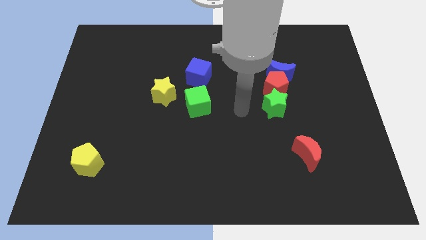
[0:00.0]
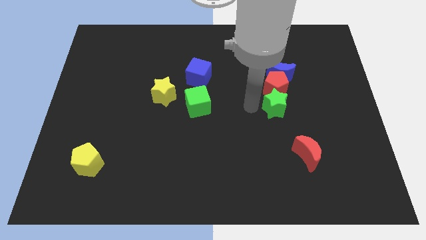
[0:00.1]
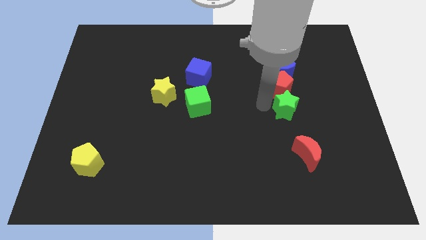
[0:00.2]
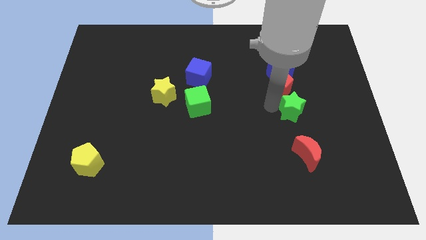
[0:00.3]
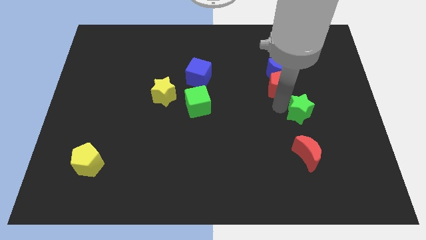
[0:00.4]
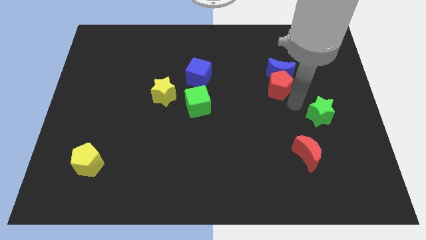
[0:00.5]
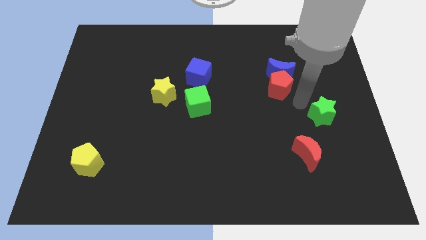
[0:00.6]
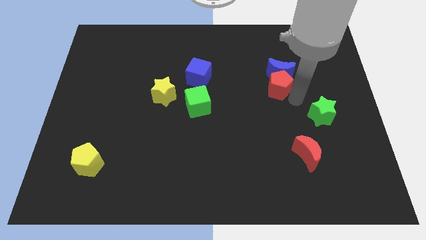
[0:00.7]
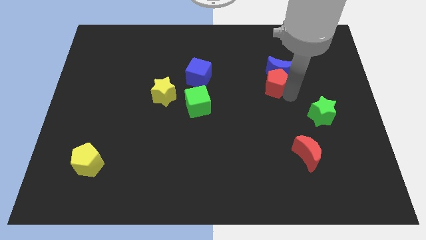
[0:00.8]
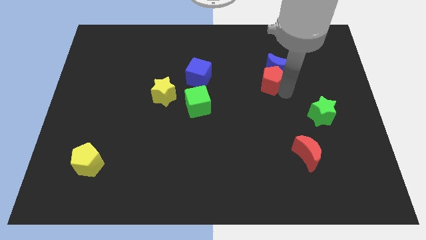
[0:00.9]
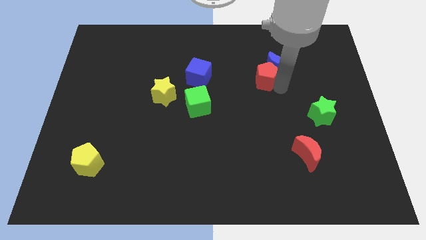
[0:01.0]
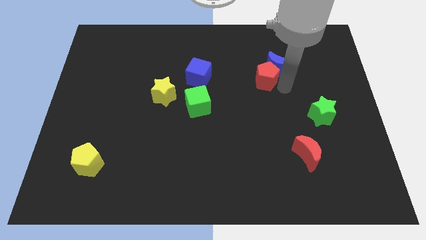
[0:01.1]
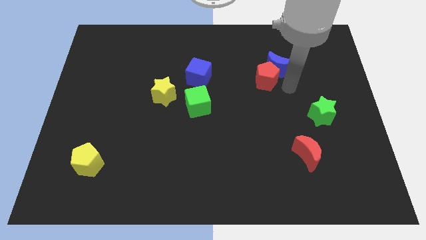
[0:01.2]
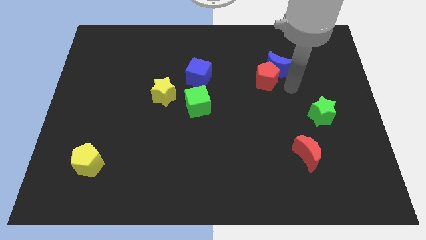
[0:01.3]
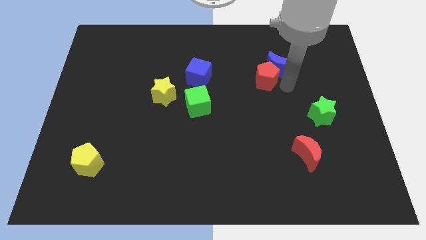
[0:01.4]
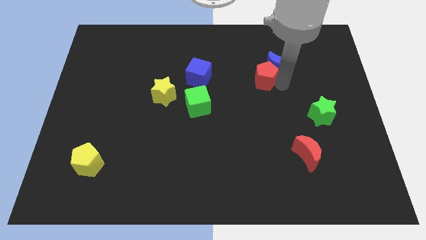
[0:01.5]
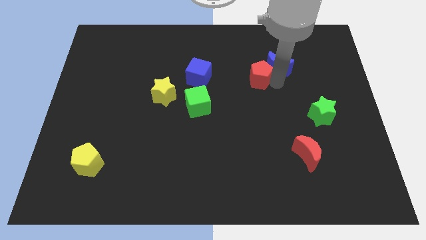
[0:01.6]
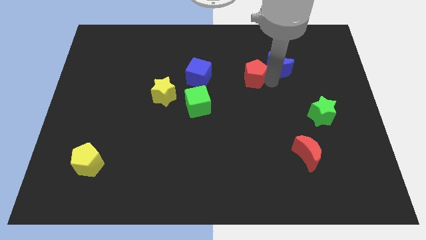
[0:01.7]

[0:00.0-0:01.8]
move the red pentagon away from the blue moon and green star

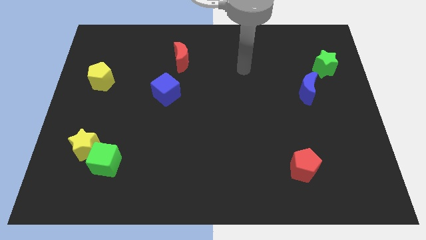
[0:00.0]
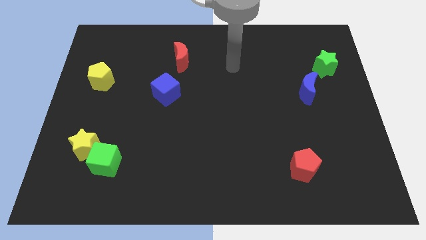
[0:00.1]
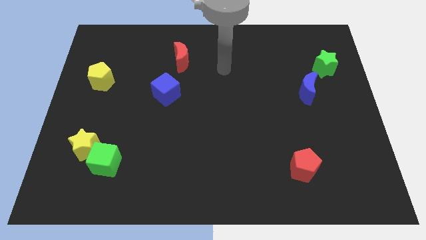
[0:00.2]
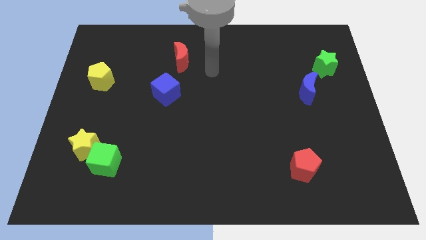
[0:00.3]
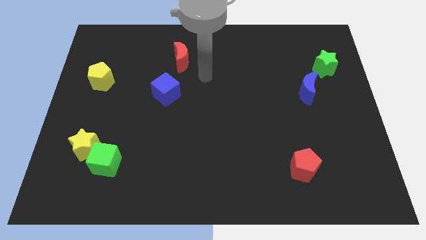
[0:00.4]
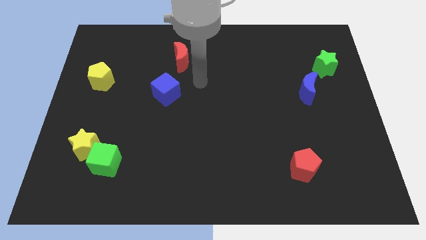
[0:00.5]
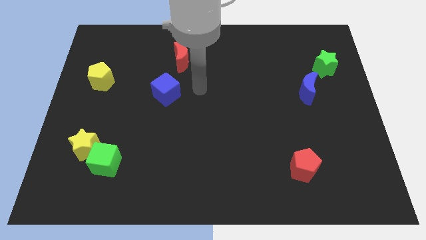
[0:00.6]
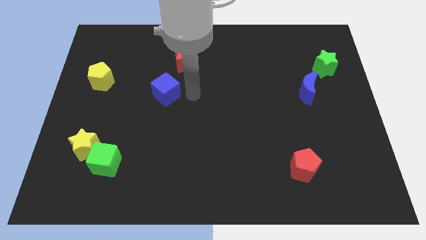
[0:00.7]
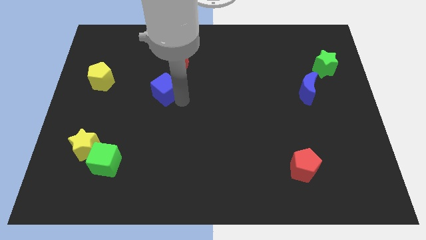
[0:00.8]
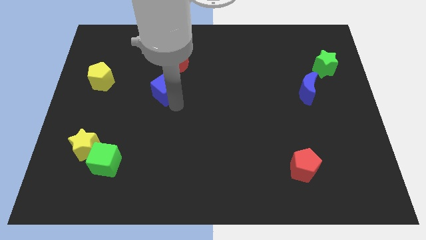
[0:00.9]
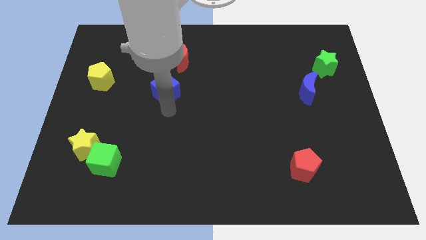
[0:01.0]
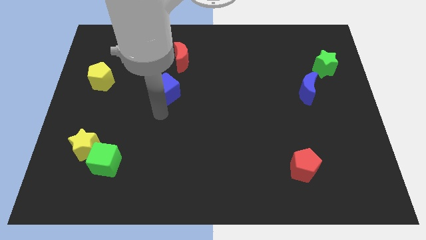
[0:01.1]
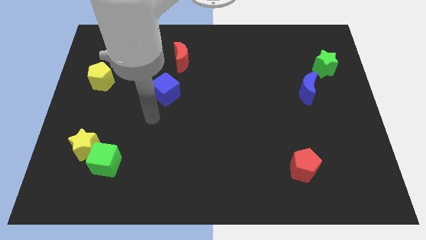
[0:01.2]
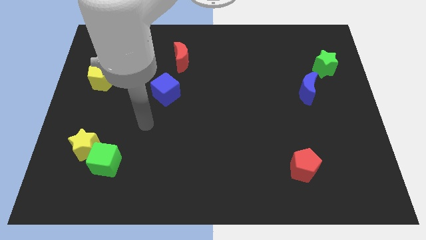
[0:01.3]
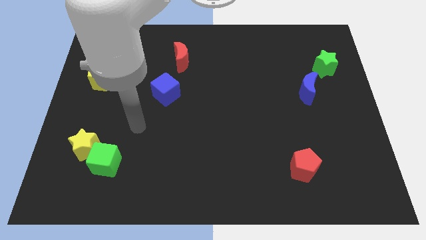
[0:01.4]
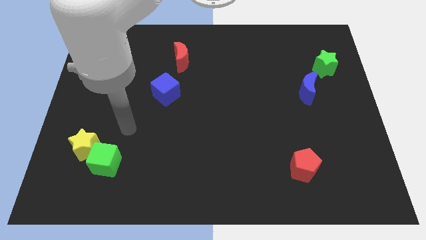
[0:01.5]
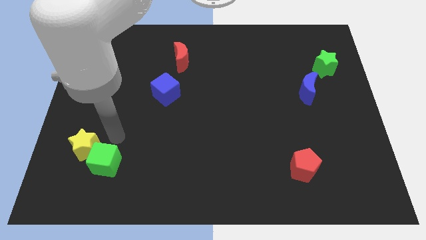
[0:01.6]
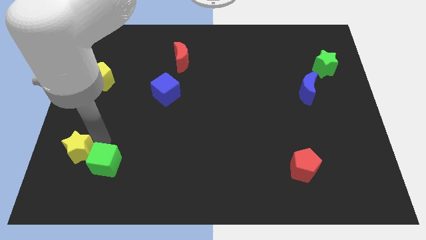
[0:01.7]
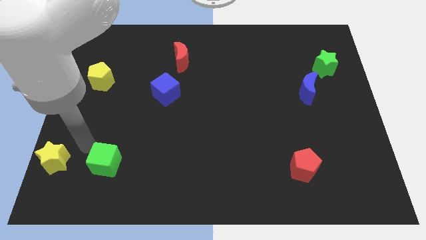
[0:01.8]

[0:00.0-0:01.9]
pull the green cube apart from the yellow star

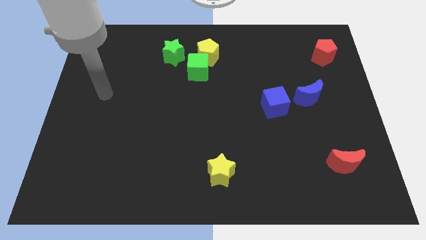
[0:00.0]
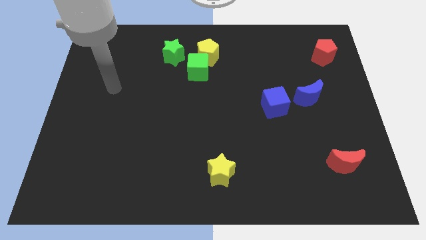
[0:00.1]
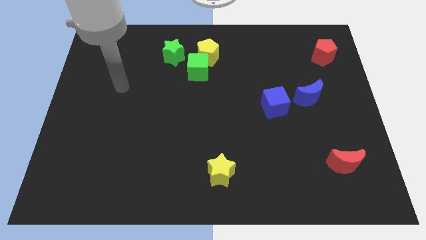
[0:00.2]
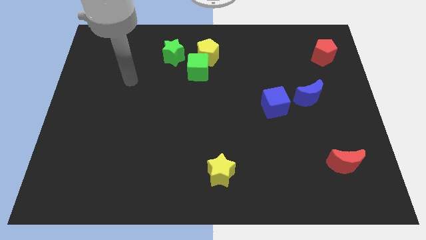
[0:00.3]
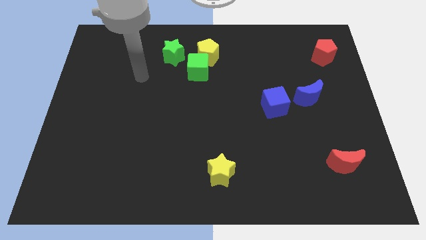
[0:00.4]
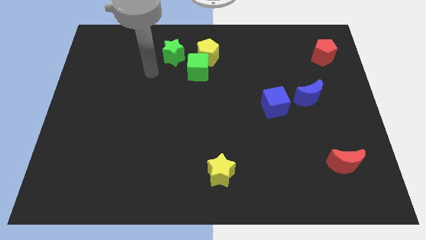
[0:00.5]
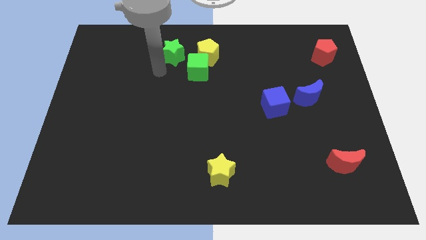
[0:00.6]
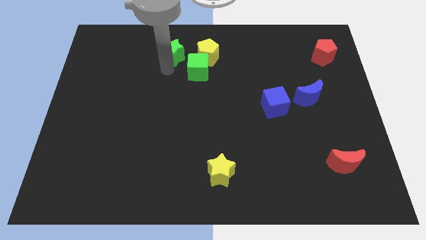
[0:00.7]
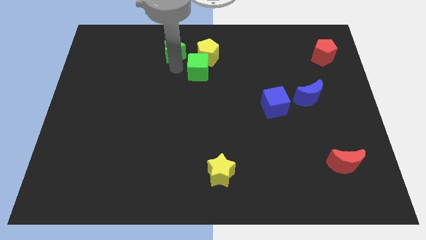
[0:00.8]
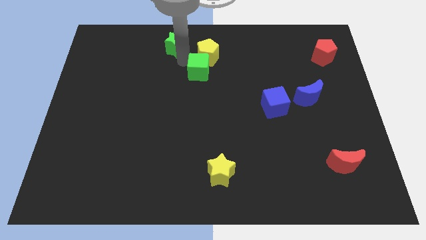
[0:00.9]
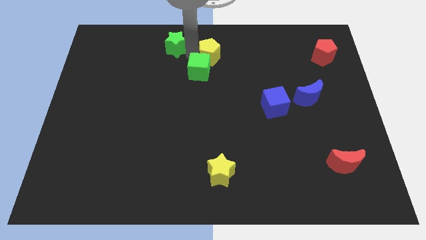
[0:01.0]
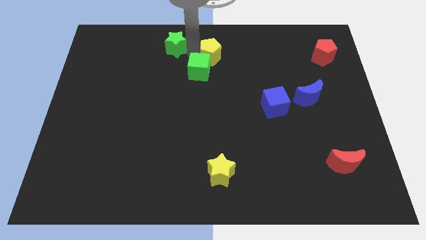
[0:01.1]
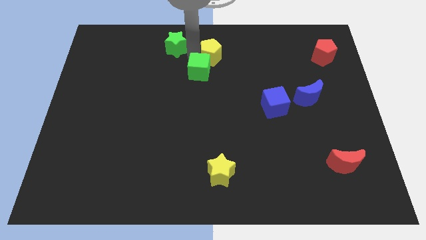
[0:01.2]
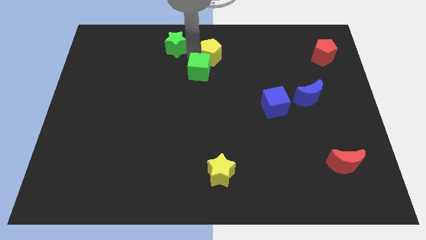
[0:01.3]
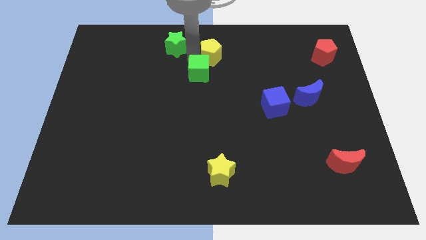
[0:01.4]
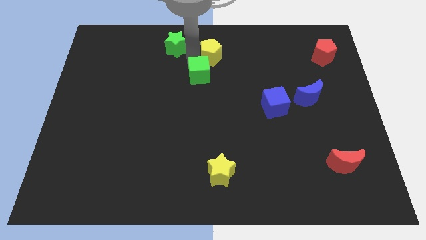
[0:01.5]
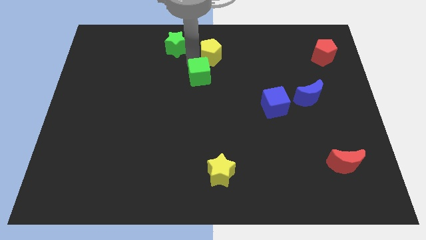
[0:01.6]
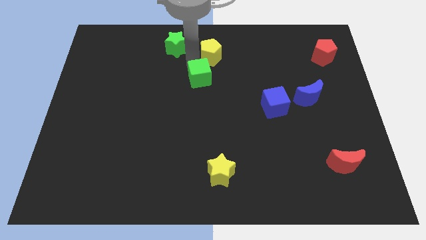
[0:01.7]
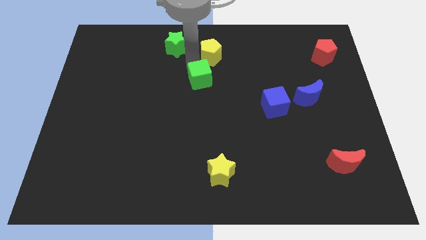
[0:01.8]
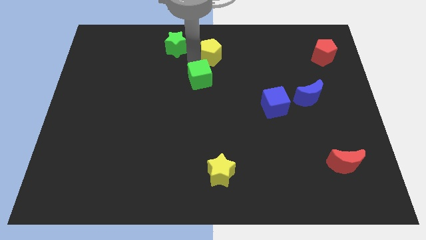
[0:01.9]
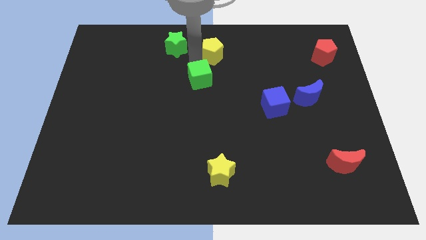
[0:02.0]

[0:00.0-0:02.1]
move the green cube away from the yellow pentagon and green star

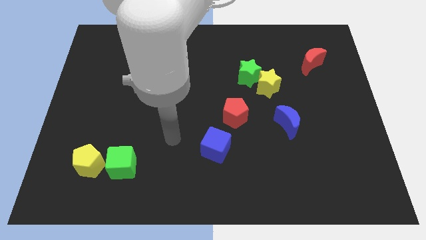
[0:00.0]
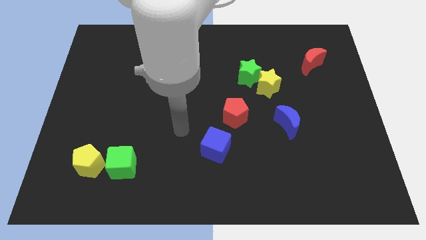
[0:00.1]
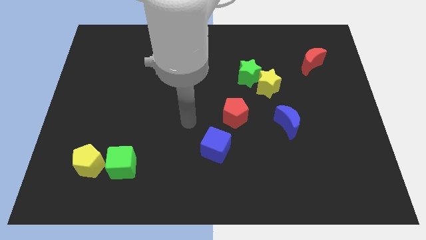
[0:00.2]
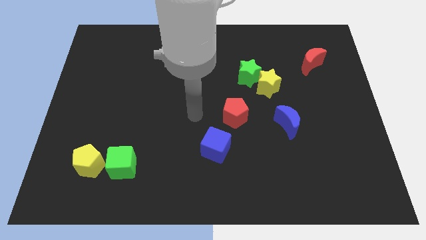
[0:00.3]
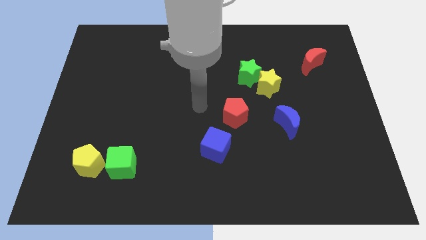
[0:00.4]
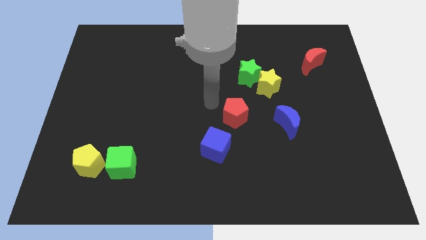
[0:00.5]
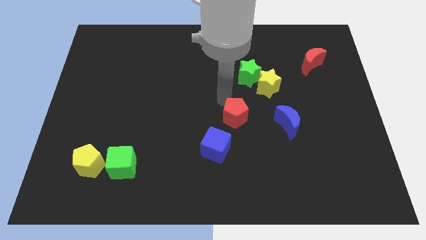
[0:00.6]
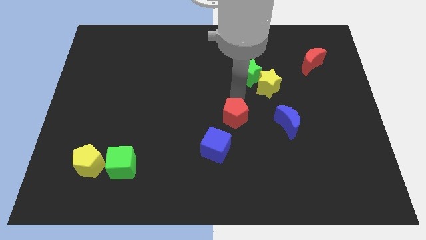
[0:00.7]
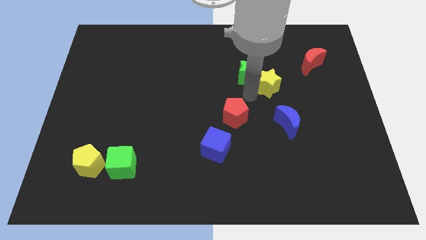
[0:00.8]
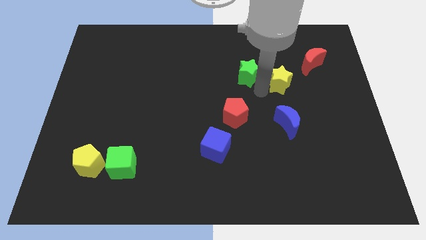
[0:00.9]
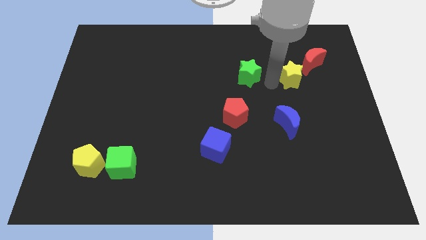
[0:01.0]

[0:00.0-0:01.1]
separate the green star from the yellow star

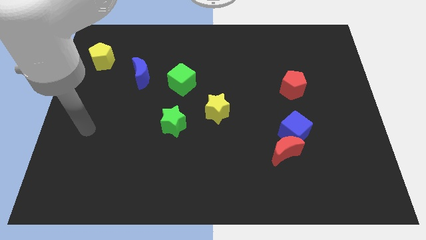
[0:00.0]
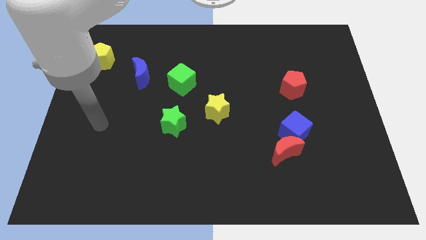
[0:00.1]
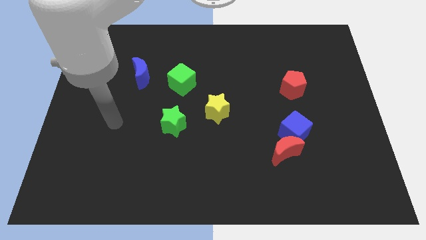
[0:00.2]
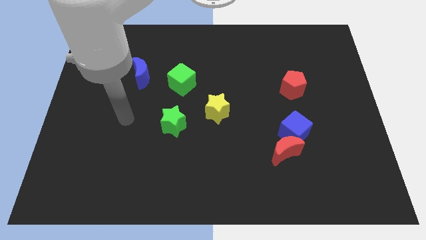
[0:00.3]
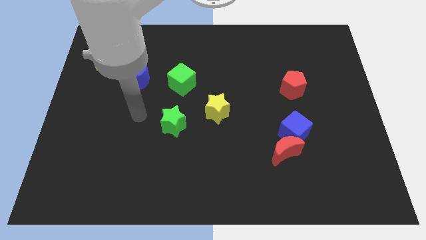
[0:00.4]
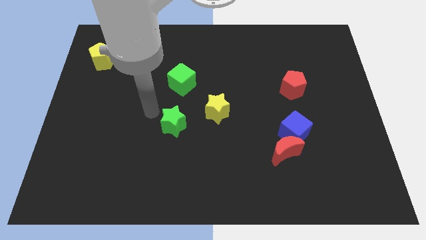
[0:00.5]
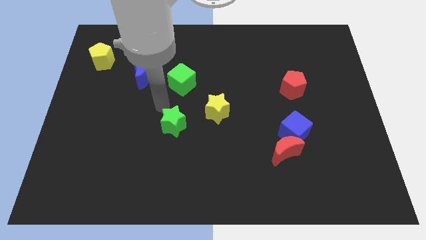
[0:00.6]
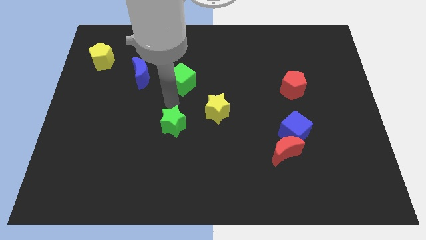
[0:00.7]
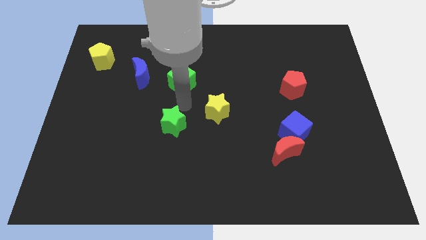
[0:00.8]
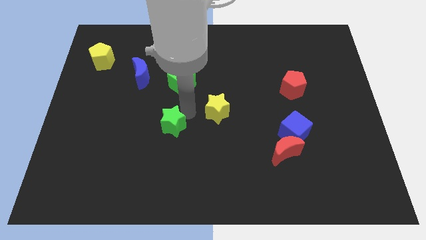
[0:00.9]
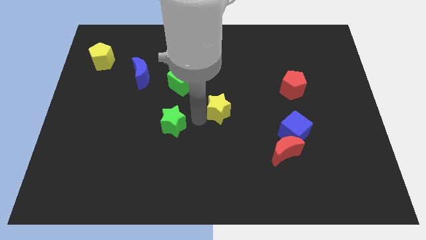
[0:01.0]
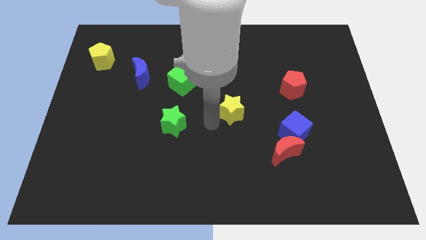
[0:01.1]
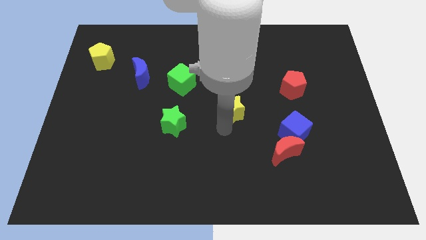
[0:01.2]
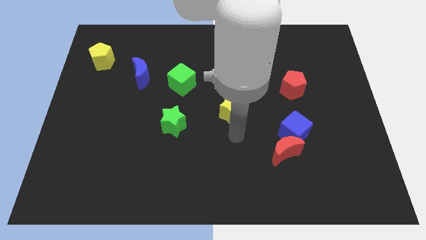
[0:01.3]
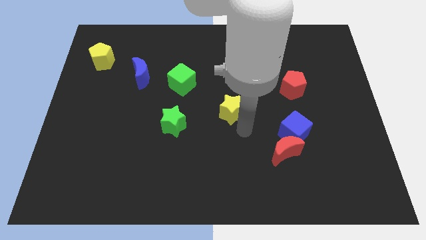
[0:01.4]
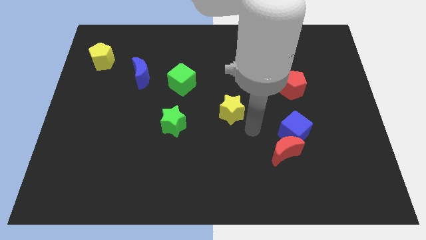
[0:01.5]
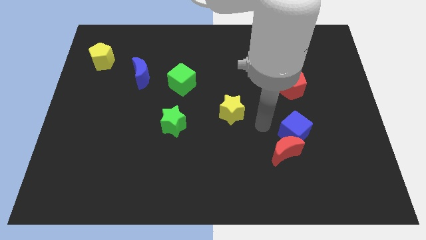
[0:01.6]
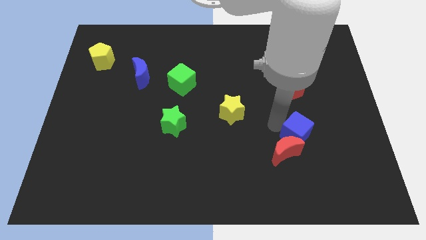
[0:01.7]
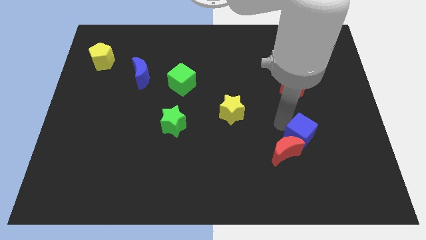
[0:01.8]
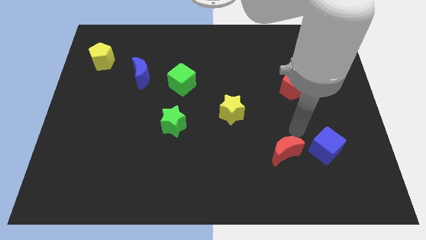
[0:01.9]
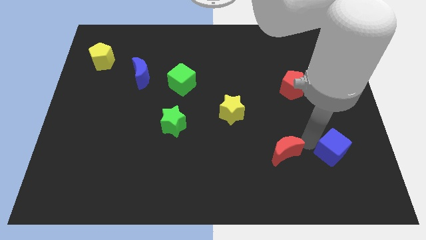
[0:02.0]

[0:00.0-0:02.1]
separate the red moon from the blue cube

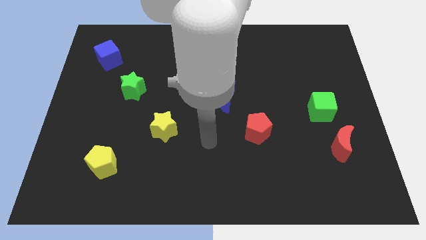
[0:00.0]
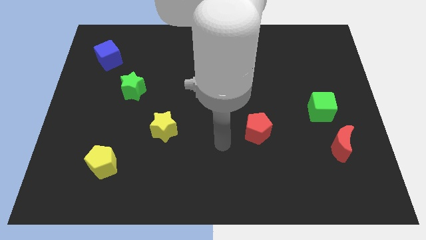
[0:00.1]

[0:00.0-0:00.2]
move the red moon away from the green cube
